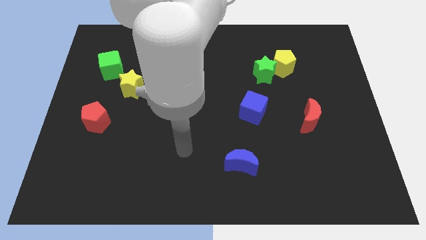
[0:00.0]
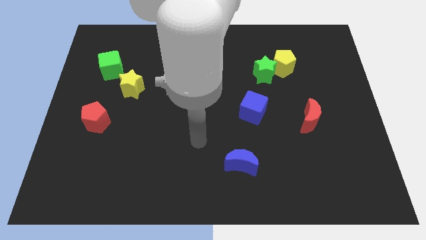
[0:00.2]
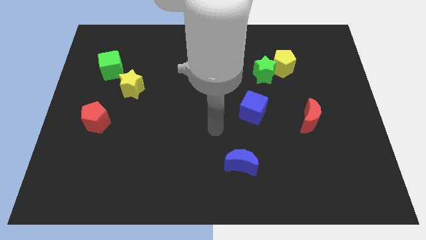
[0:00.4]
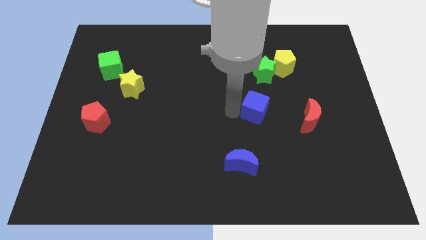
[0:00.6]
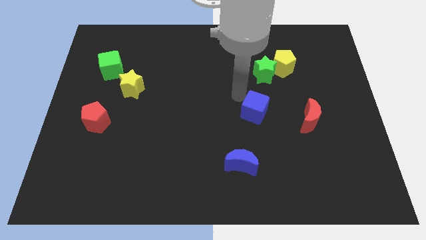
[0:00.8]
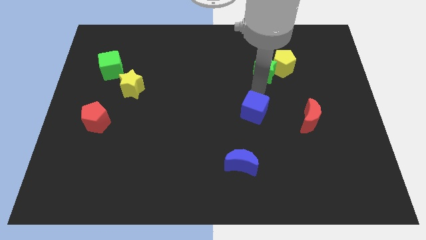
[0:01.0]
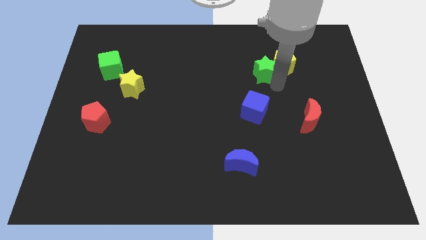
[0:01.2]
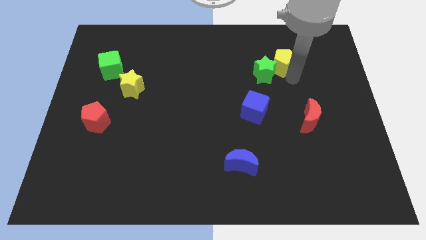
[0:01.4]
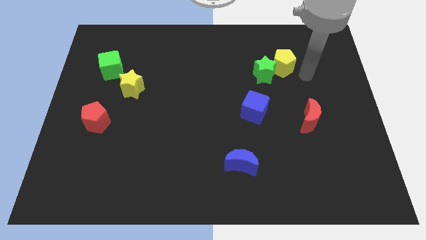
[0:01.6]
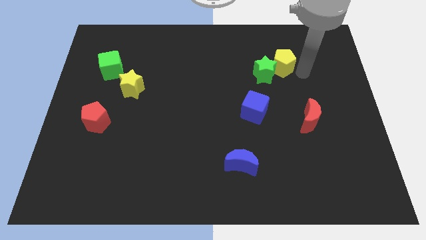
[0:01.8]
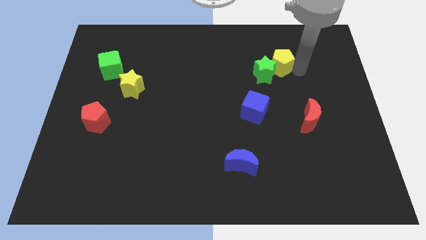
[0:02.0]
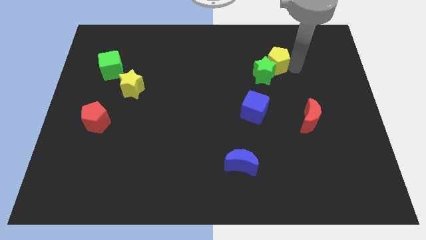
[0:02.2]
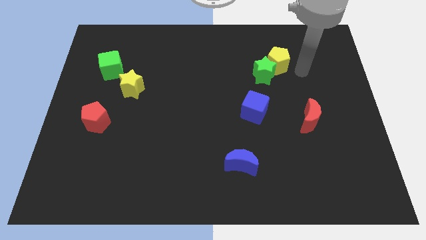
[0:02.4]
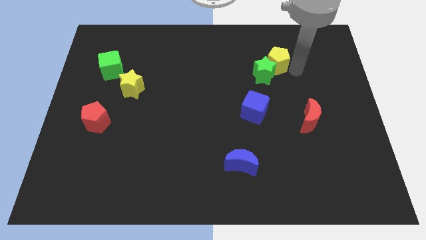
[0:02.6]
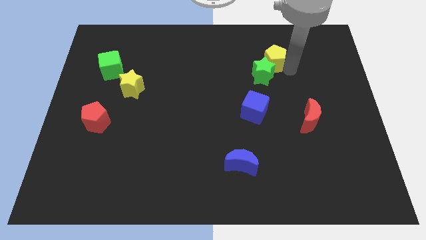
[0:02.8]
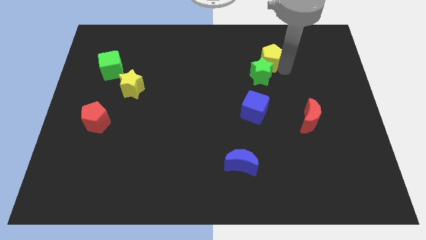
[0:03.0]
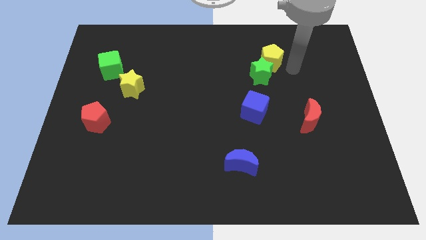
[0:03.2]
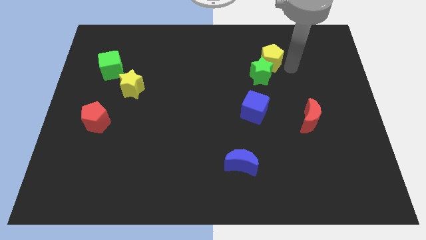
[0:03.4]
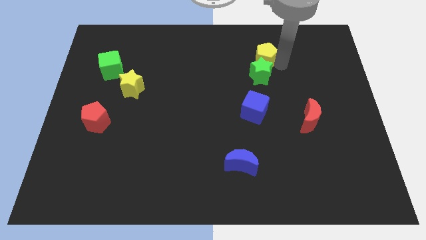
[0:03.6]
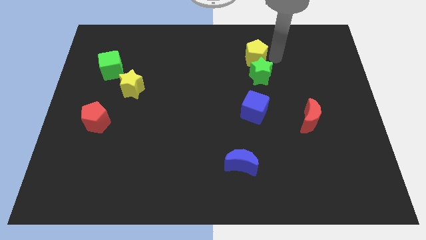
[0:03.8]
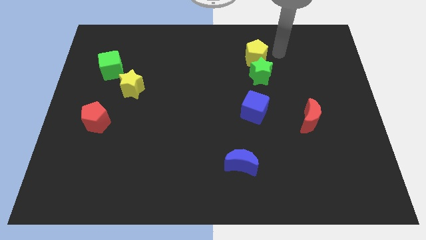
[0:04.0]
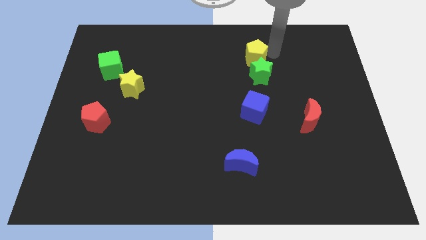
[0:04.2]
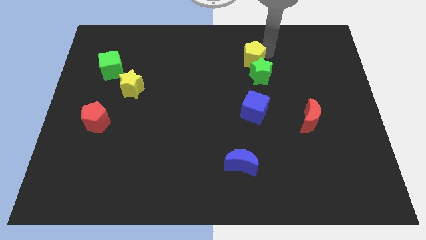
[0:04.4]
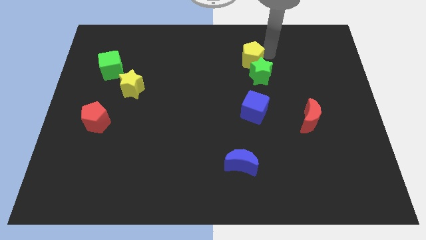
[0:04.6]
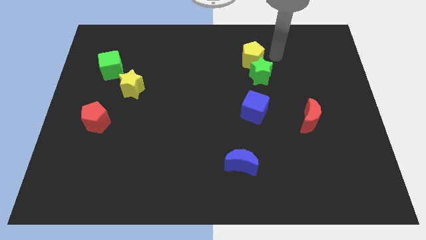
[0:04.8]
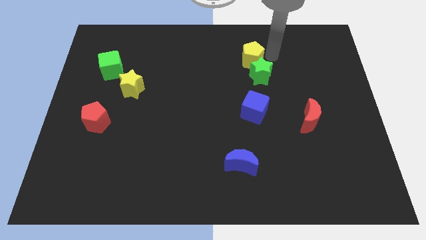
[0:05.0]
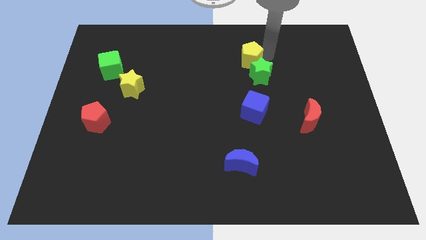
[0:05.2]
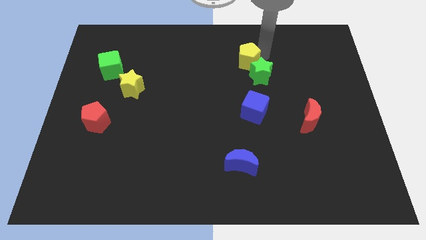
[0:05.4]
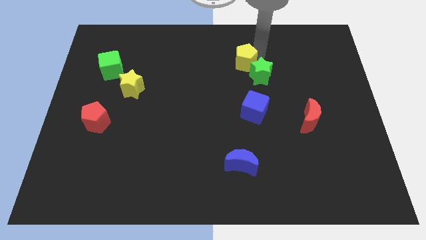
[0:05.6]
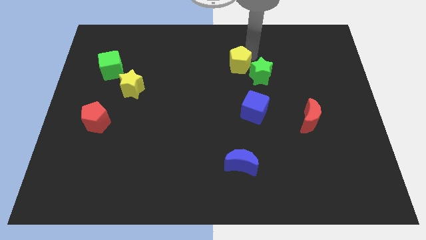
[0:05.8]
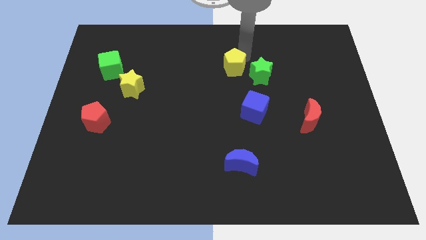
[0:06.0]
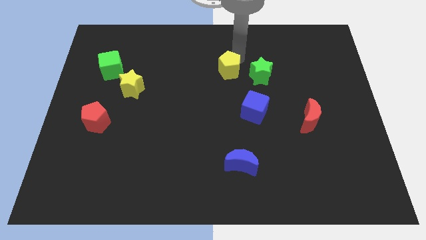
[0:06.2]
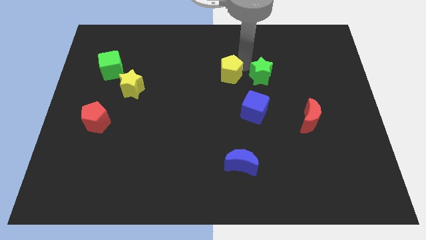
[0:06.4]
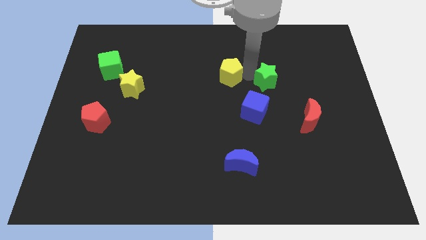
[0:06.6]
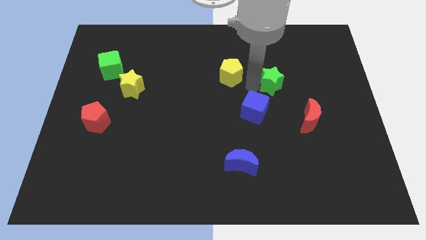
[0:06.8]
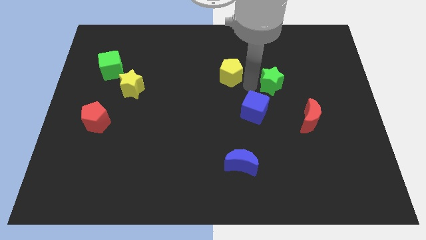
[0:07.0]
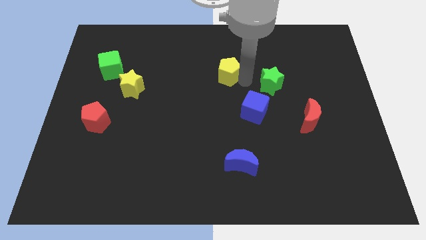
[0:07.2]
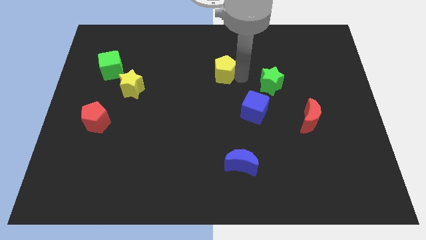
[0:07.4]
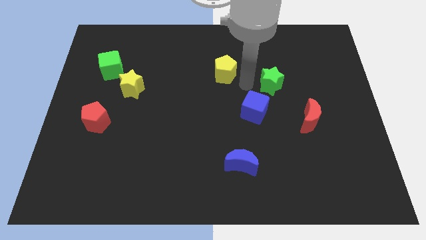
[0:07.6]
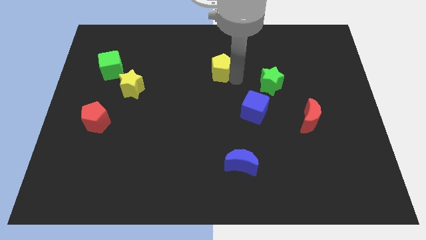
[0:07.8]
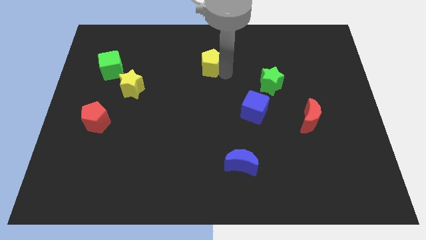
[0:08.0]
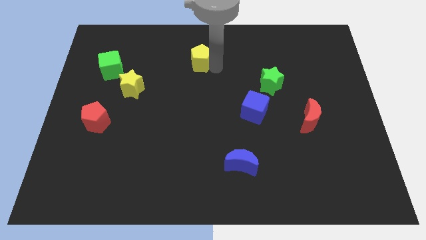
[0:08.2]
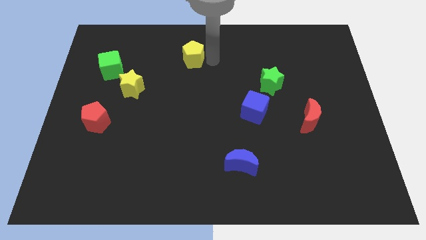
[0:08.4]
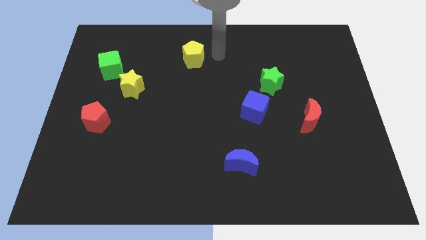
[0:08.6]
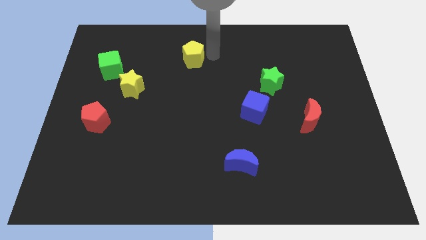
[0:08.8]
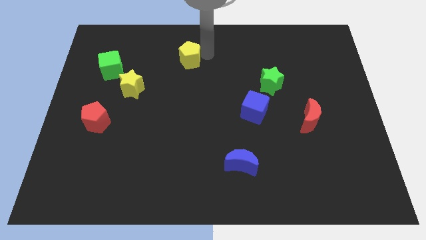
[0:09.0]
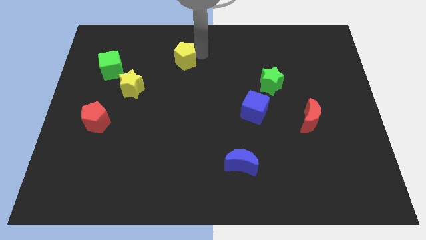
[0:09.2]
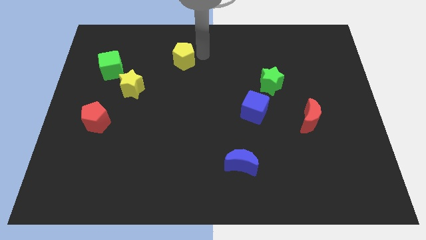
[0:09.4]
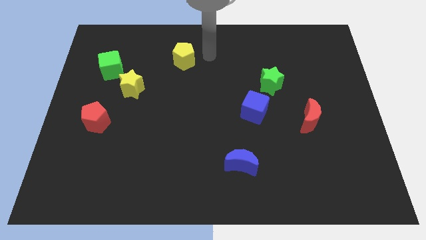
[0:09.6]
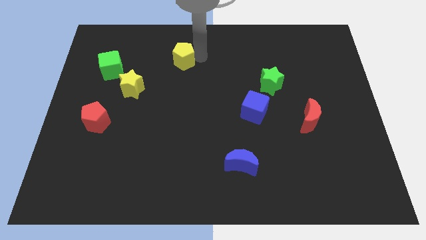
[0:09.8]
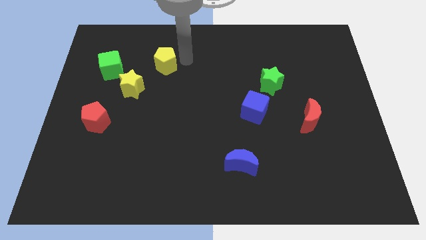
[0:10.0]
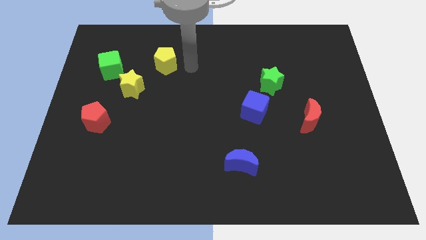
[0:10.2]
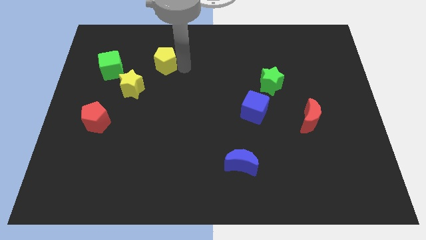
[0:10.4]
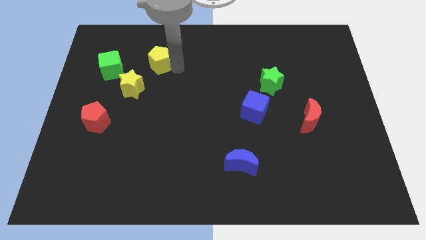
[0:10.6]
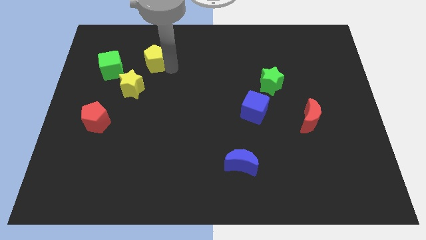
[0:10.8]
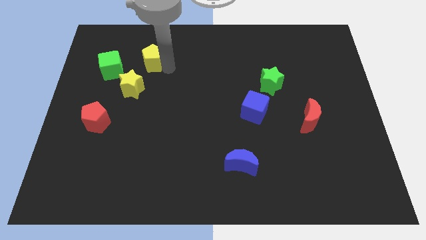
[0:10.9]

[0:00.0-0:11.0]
push the yellow pentagon above the yellow star

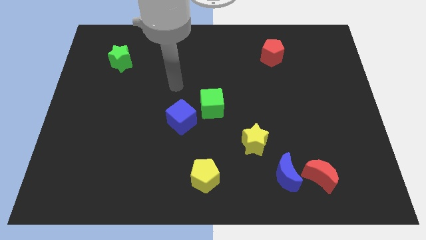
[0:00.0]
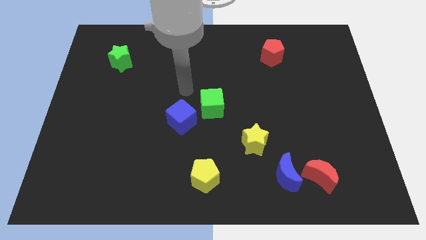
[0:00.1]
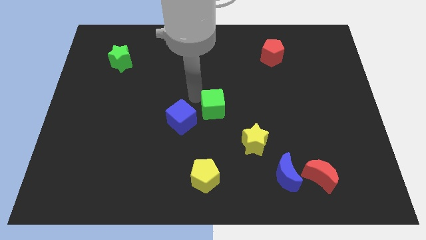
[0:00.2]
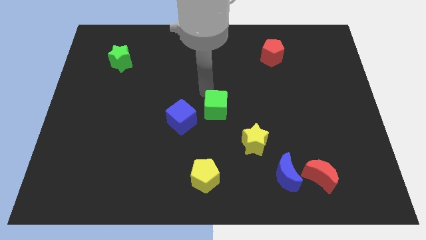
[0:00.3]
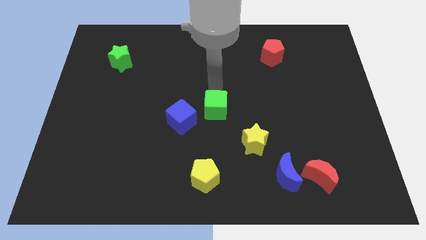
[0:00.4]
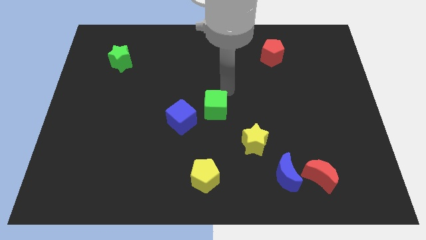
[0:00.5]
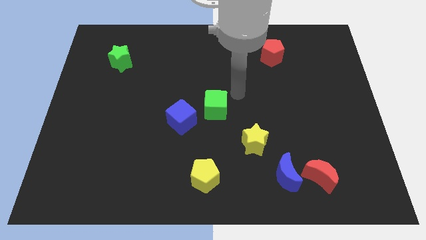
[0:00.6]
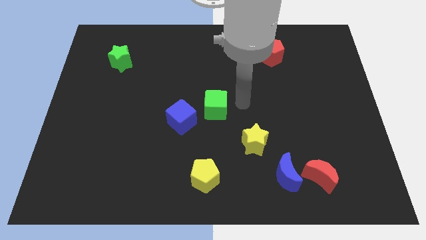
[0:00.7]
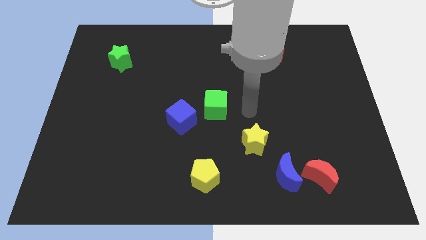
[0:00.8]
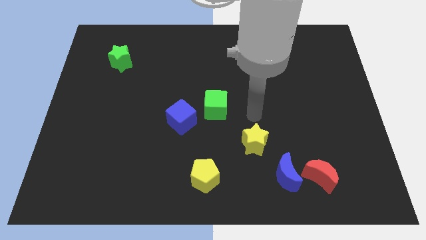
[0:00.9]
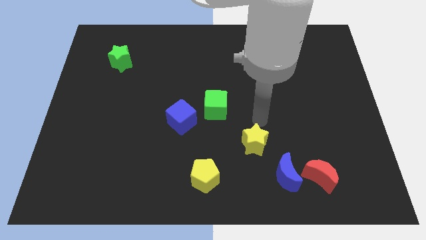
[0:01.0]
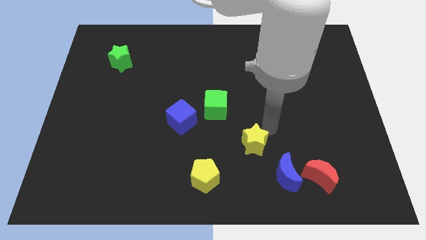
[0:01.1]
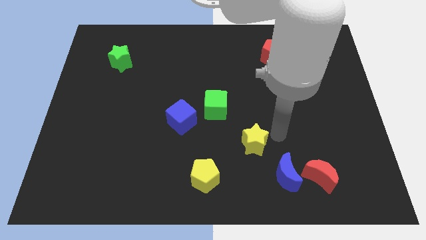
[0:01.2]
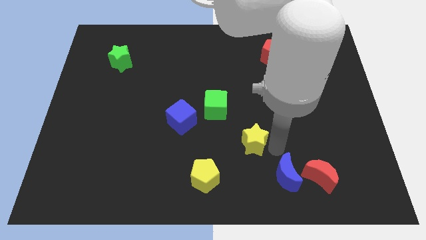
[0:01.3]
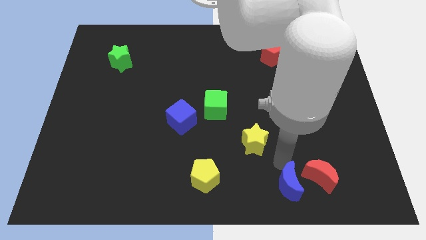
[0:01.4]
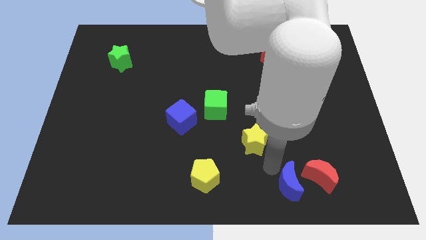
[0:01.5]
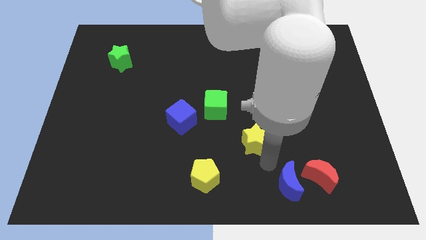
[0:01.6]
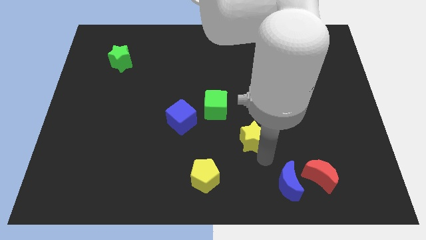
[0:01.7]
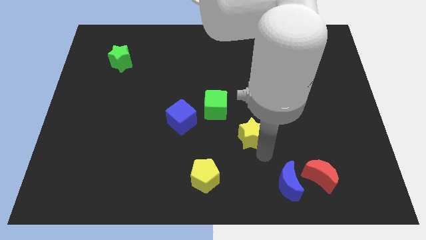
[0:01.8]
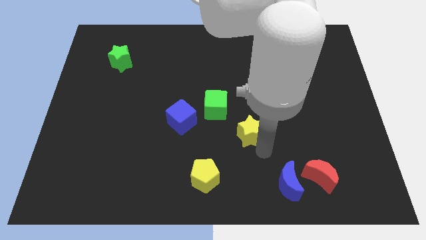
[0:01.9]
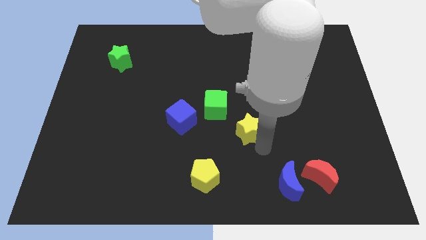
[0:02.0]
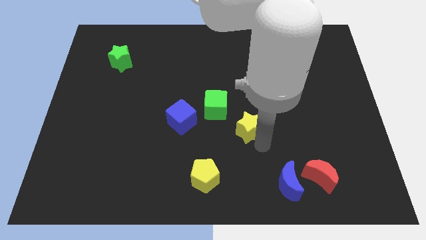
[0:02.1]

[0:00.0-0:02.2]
slide the yellow star to the right of the blue cube

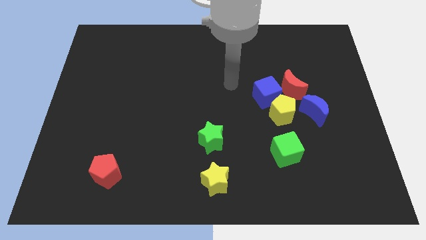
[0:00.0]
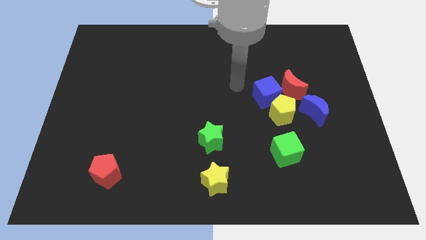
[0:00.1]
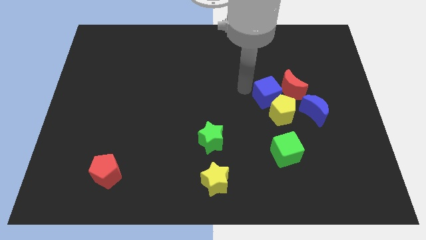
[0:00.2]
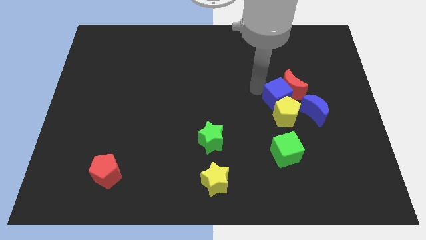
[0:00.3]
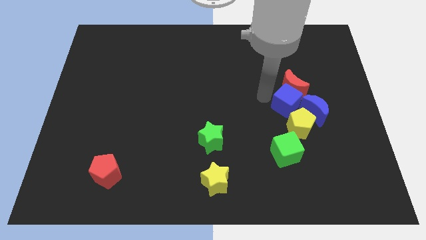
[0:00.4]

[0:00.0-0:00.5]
put the yellow pentagon diagonally up and to the right of the green cube
